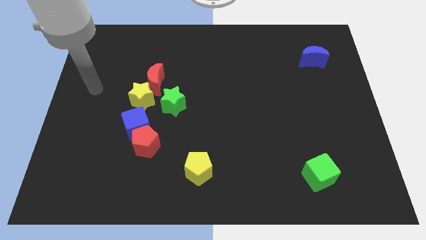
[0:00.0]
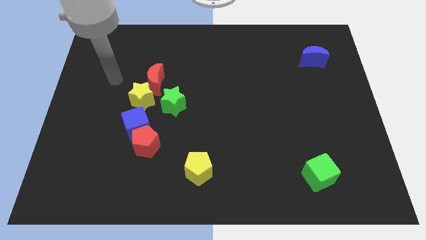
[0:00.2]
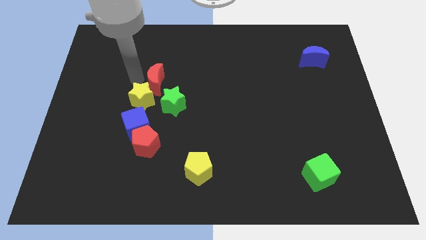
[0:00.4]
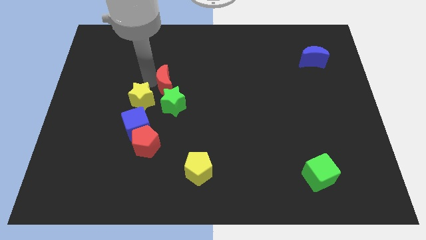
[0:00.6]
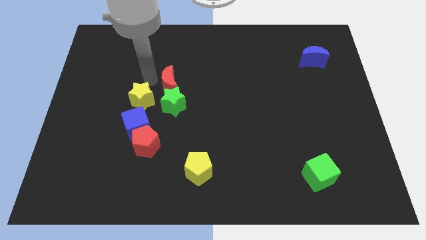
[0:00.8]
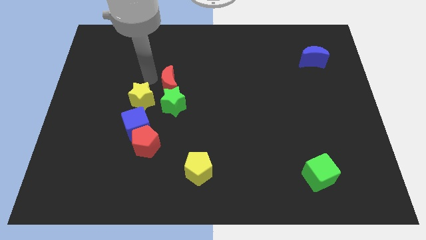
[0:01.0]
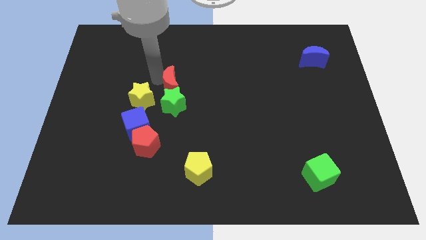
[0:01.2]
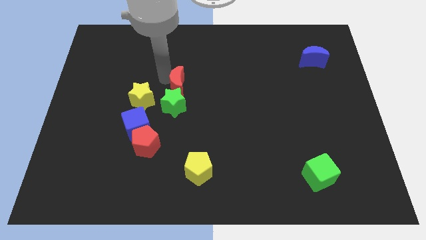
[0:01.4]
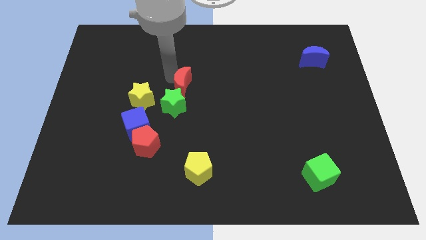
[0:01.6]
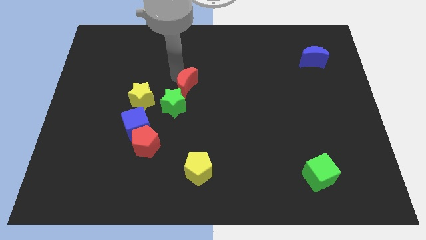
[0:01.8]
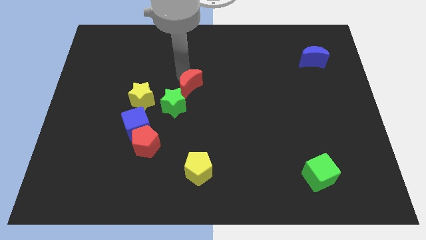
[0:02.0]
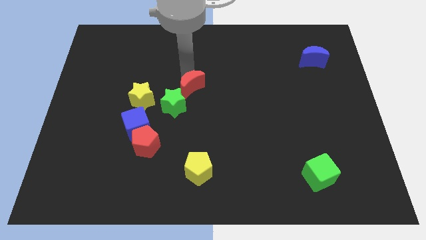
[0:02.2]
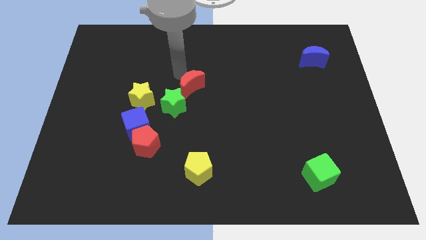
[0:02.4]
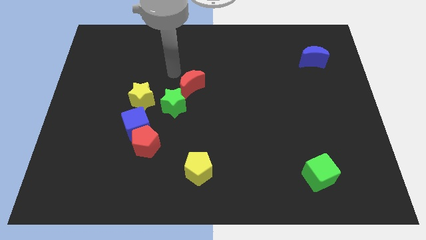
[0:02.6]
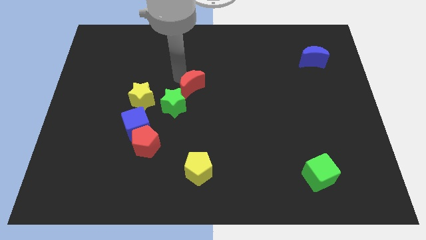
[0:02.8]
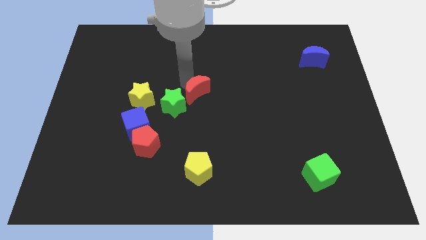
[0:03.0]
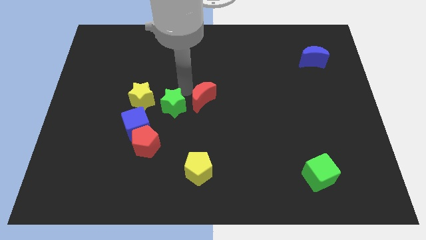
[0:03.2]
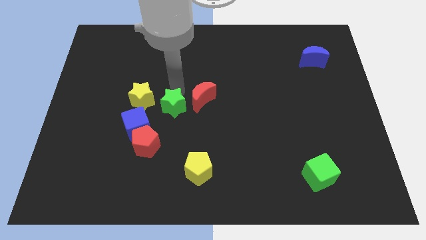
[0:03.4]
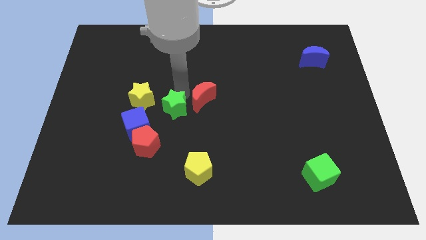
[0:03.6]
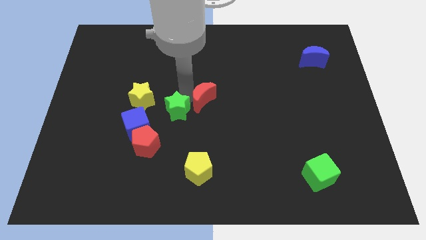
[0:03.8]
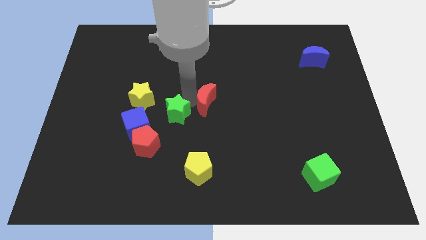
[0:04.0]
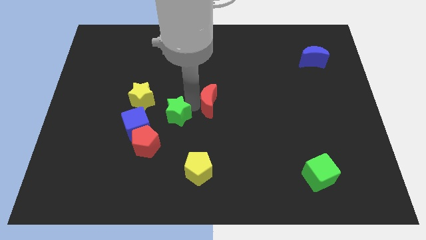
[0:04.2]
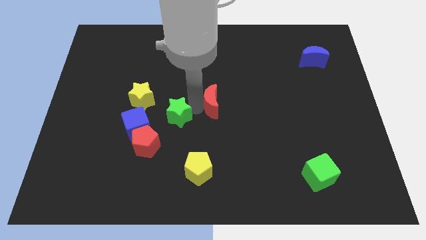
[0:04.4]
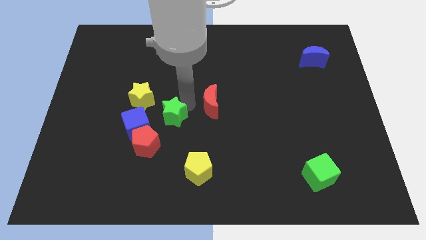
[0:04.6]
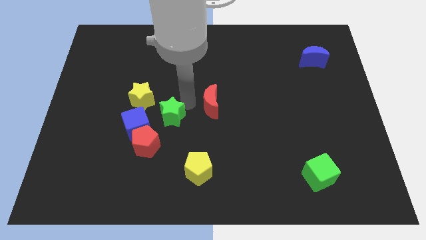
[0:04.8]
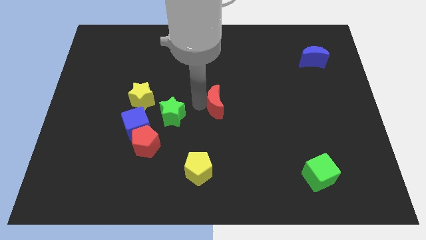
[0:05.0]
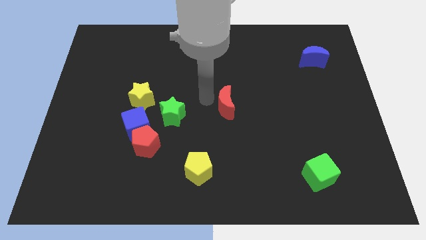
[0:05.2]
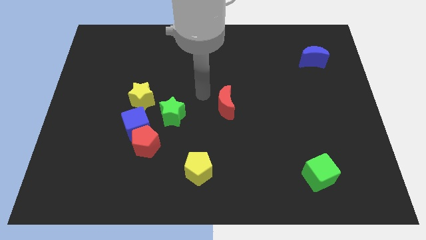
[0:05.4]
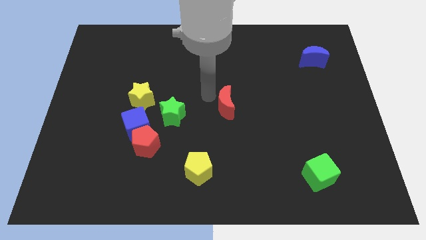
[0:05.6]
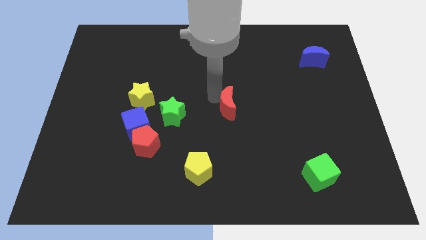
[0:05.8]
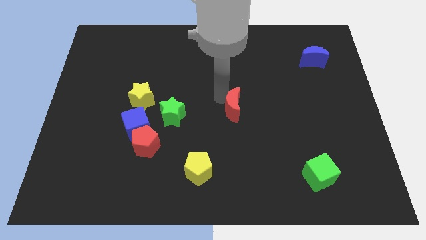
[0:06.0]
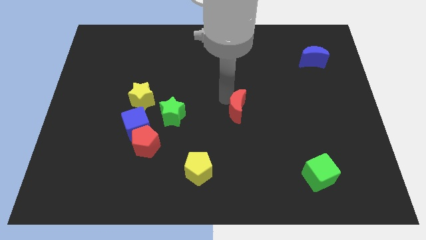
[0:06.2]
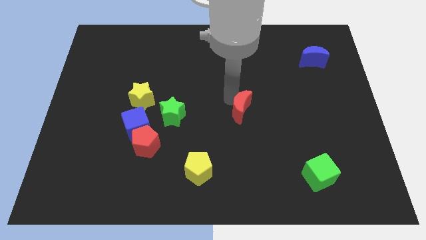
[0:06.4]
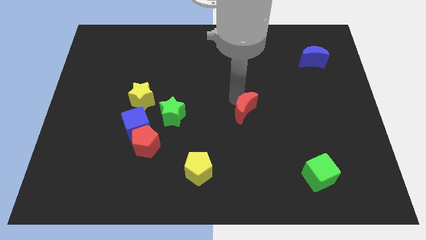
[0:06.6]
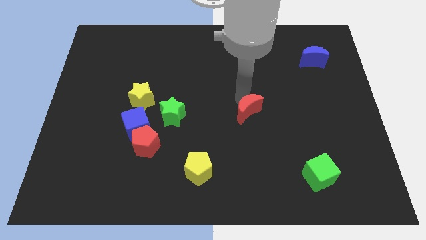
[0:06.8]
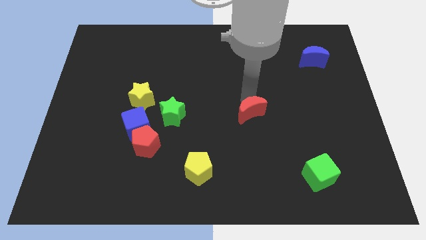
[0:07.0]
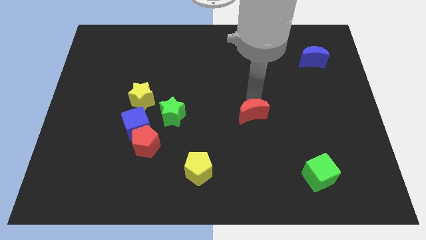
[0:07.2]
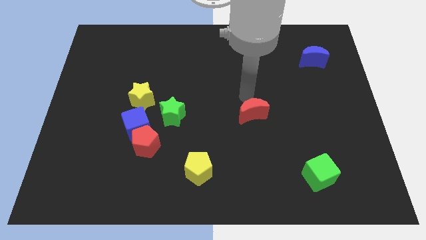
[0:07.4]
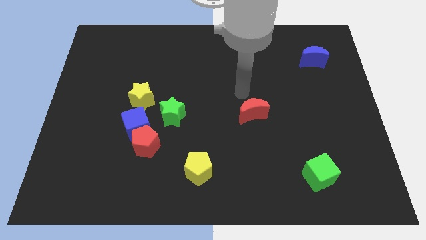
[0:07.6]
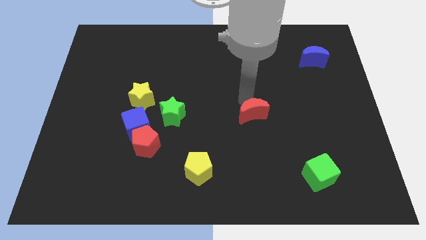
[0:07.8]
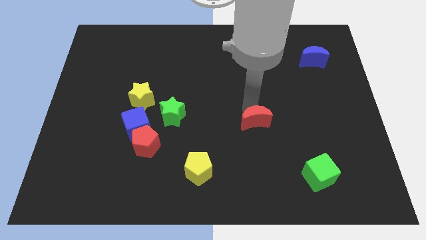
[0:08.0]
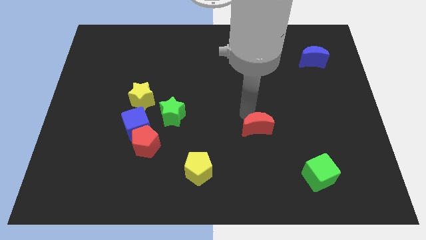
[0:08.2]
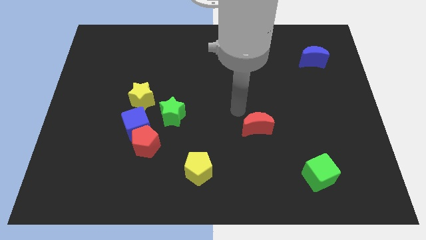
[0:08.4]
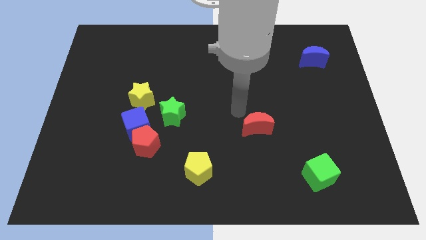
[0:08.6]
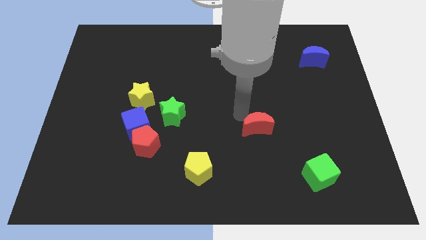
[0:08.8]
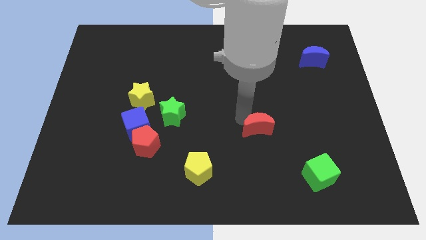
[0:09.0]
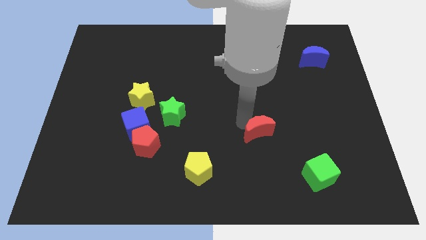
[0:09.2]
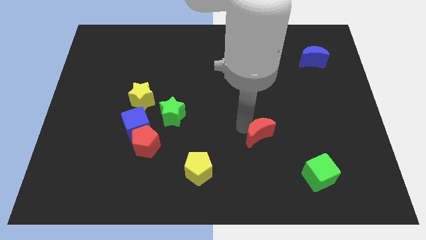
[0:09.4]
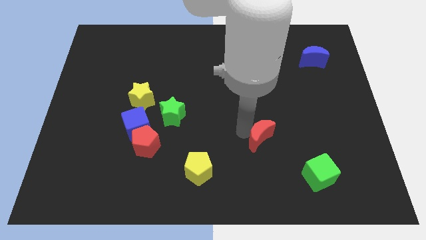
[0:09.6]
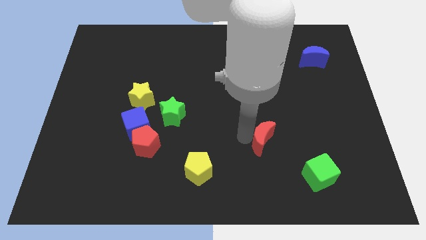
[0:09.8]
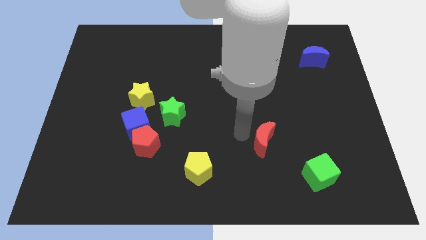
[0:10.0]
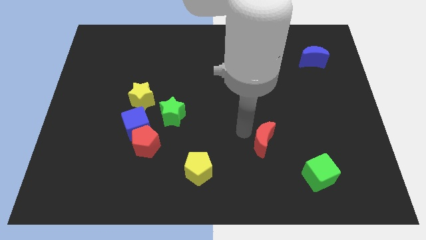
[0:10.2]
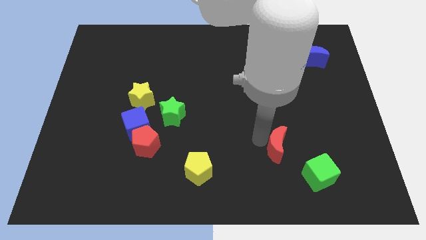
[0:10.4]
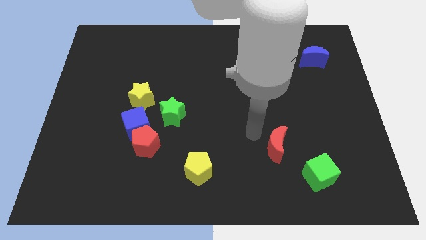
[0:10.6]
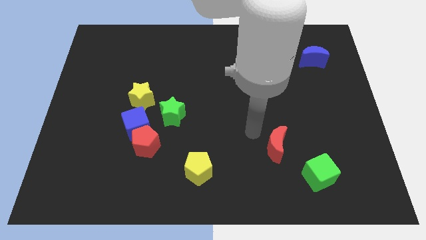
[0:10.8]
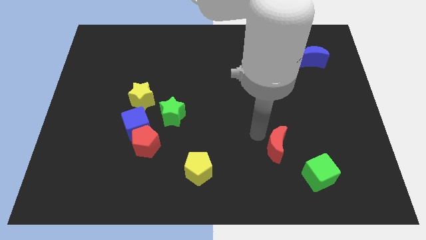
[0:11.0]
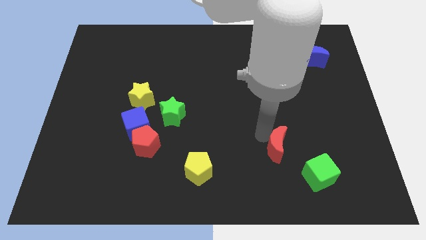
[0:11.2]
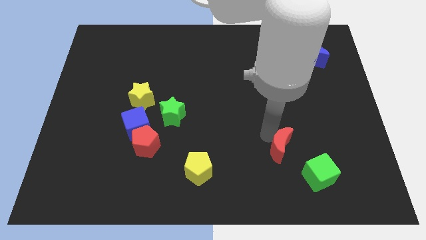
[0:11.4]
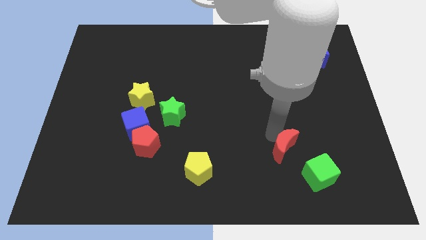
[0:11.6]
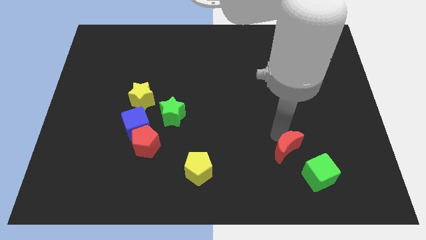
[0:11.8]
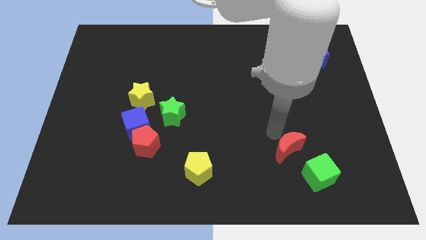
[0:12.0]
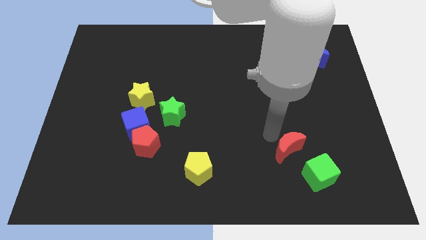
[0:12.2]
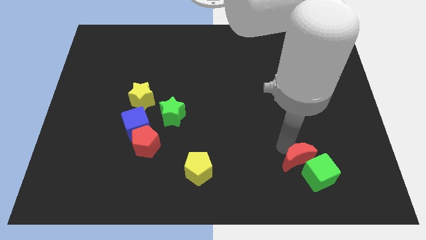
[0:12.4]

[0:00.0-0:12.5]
slide the red moon next to the green cube

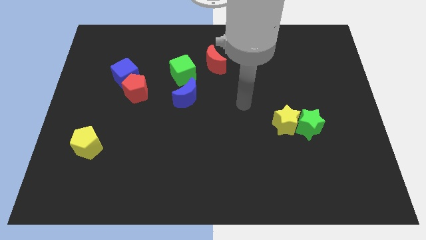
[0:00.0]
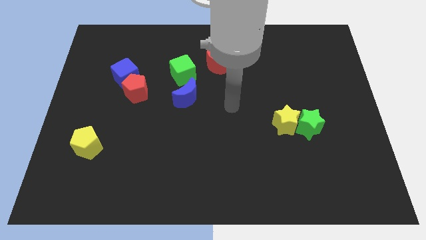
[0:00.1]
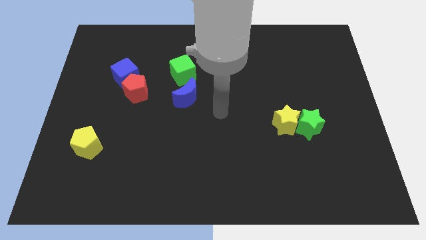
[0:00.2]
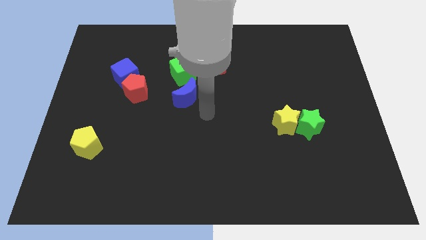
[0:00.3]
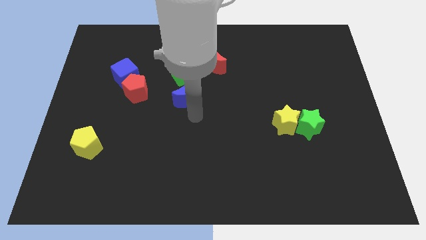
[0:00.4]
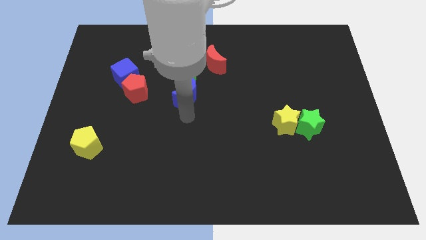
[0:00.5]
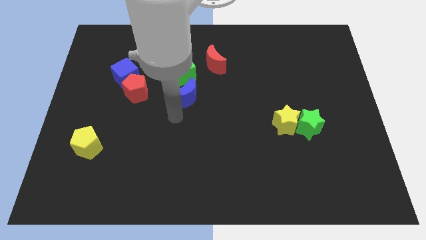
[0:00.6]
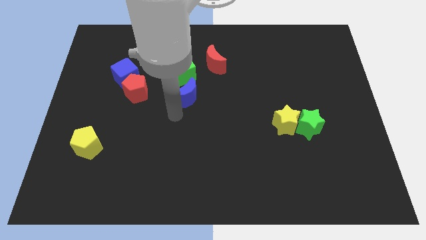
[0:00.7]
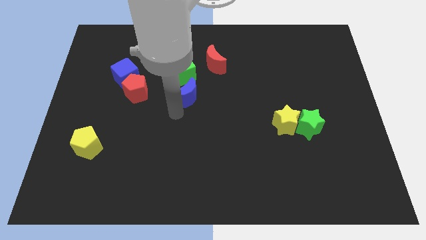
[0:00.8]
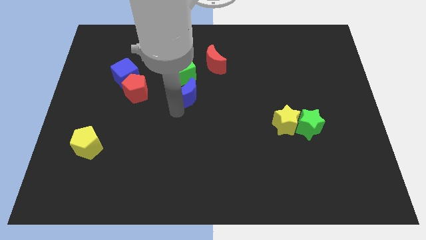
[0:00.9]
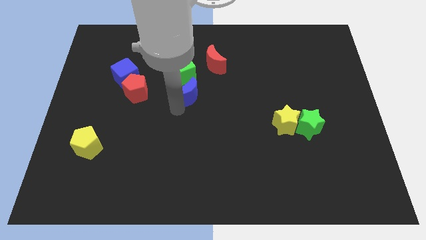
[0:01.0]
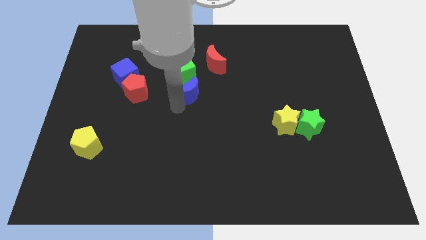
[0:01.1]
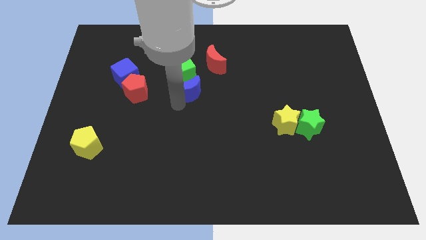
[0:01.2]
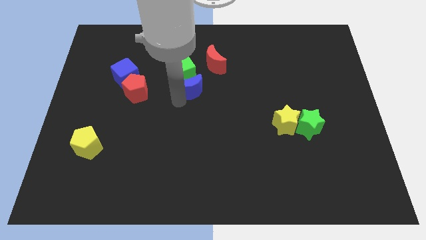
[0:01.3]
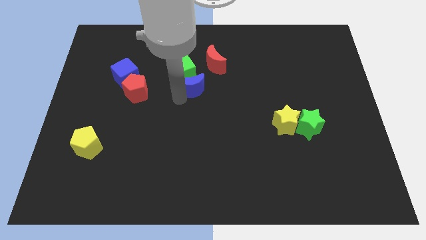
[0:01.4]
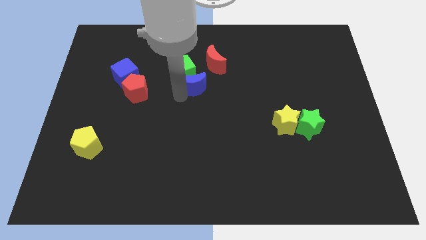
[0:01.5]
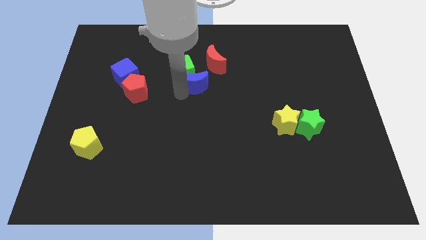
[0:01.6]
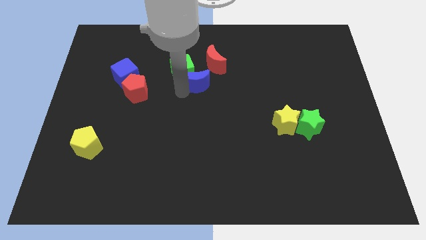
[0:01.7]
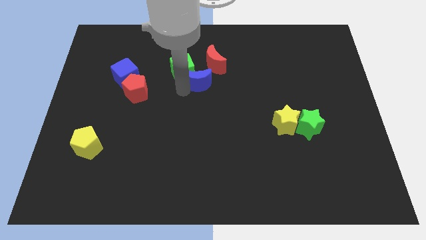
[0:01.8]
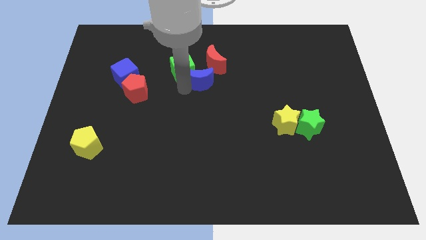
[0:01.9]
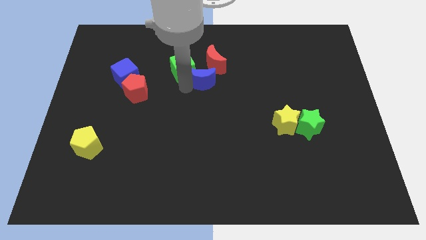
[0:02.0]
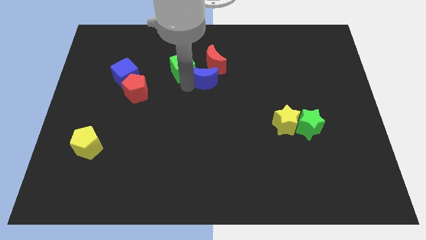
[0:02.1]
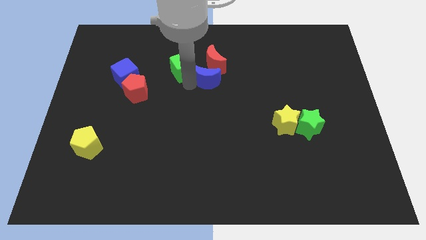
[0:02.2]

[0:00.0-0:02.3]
slide the blue moon towards the red moon
